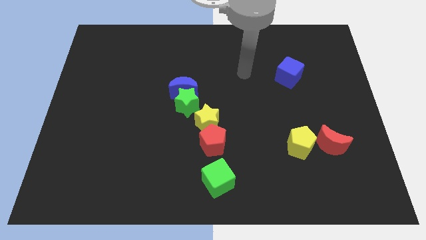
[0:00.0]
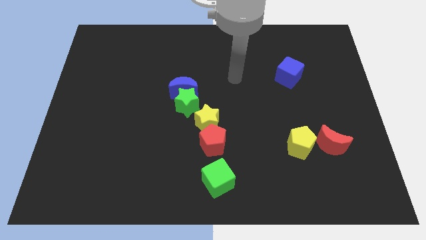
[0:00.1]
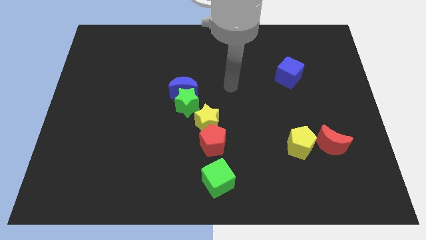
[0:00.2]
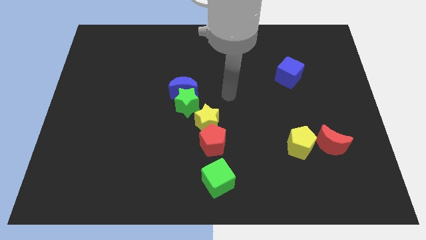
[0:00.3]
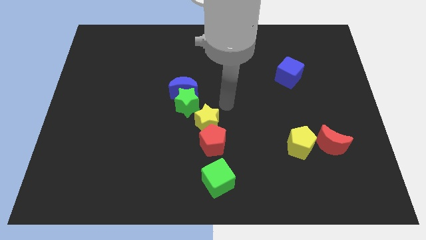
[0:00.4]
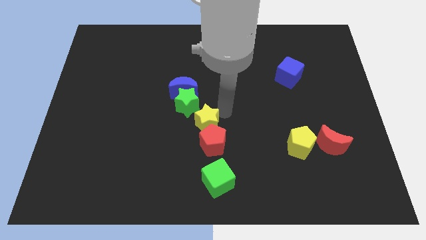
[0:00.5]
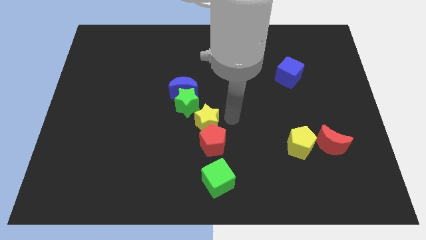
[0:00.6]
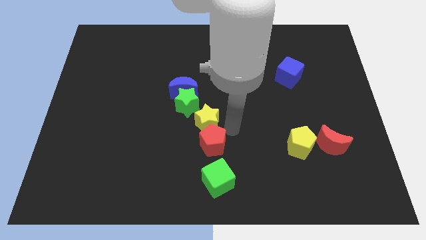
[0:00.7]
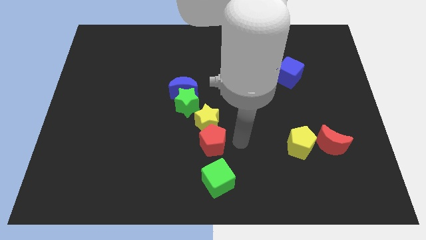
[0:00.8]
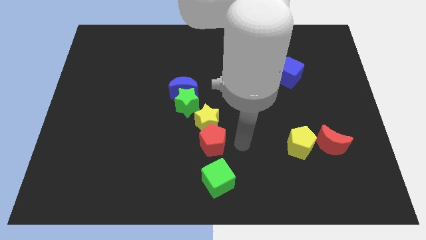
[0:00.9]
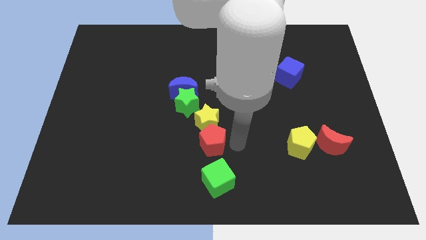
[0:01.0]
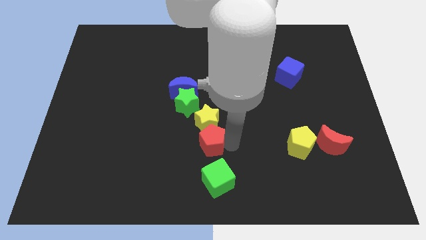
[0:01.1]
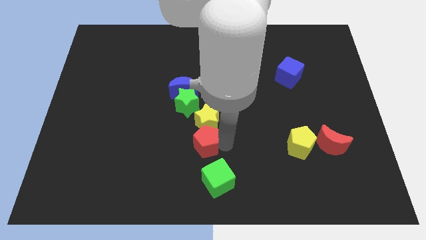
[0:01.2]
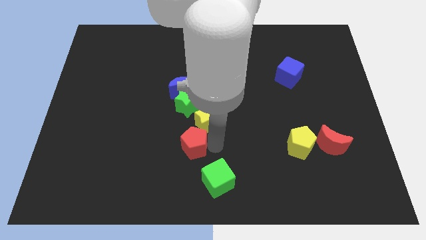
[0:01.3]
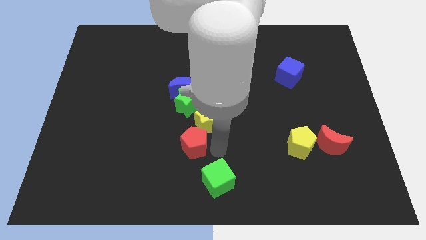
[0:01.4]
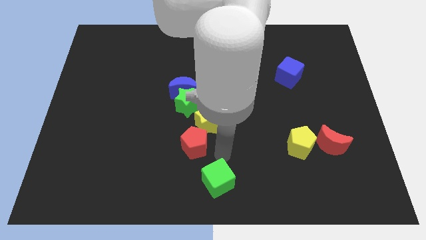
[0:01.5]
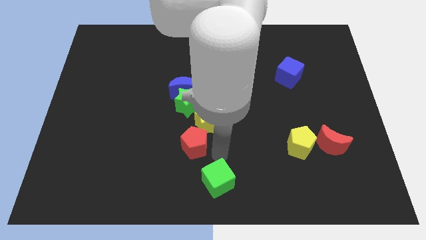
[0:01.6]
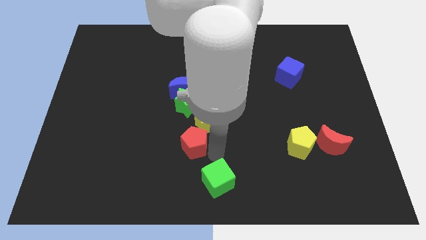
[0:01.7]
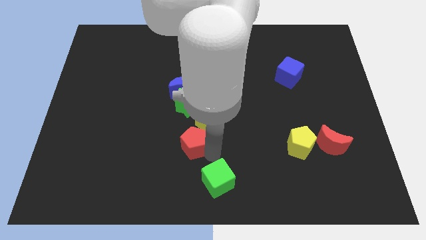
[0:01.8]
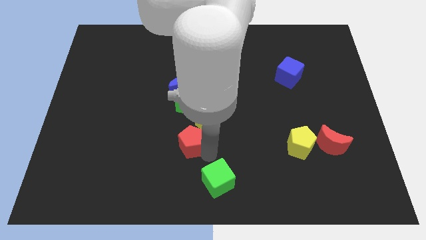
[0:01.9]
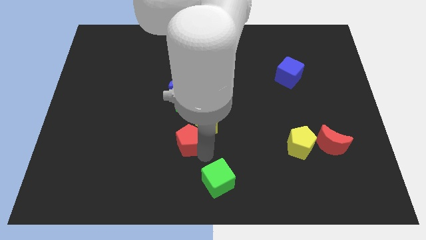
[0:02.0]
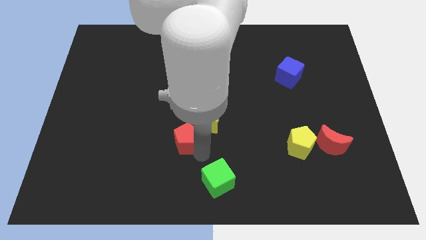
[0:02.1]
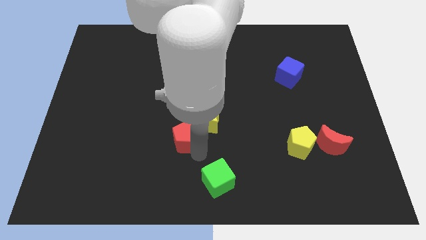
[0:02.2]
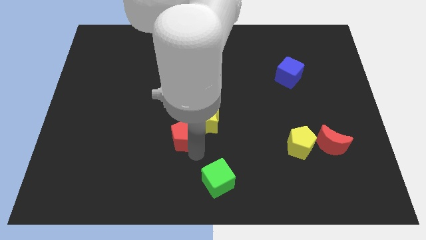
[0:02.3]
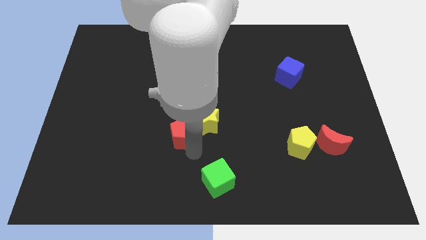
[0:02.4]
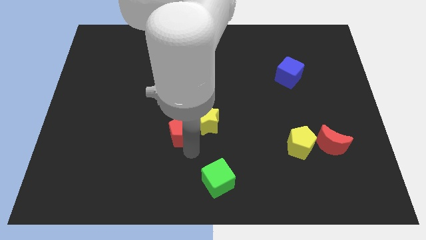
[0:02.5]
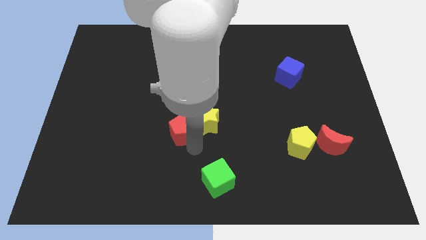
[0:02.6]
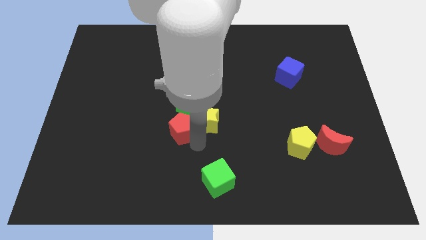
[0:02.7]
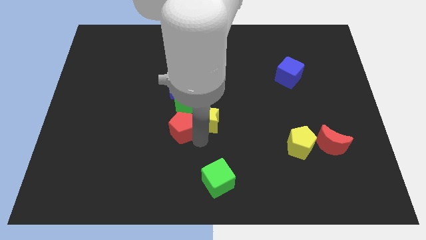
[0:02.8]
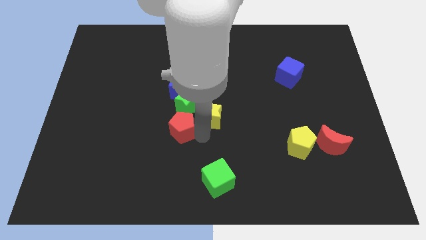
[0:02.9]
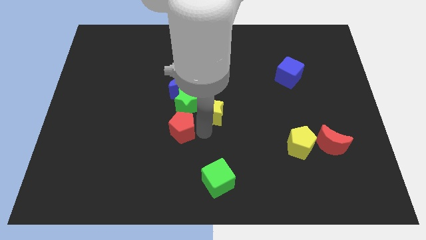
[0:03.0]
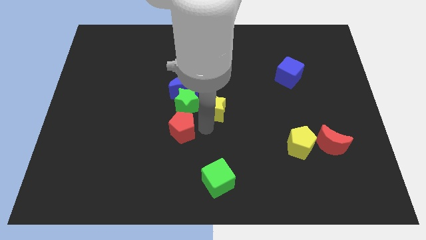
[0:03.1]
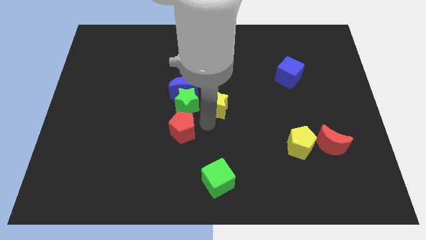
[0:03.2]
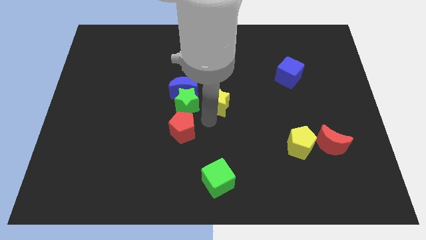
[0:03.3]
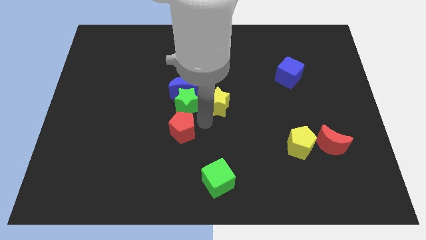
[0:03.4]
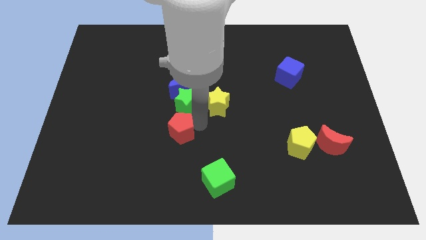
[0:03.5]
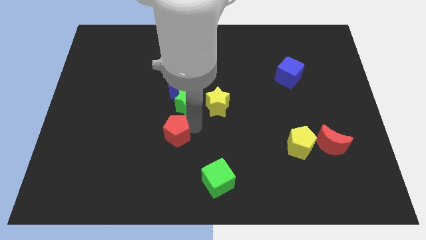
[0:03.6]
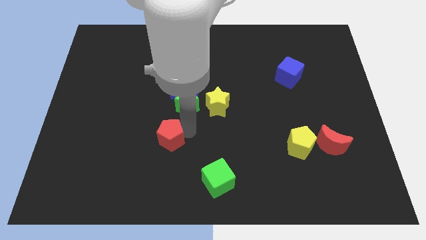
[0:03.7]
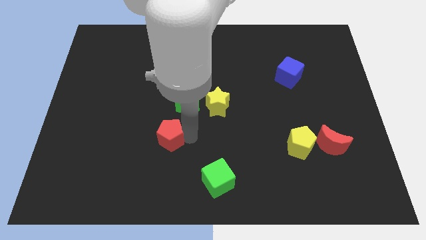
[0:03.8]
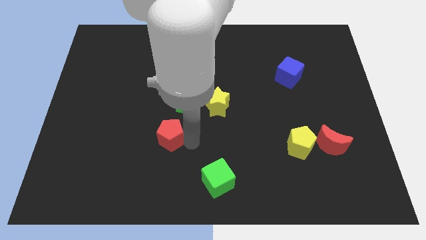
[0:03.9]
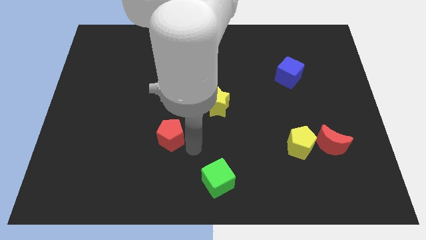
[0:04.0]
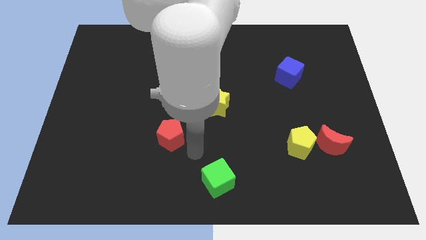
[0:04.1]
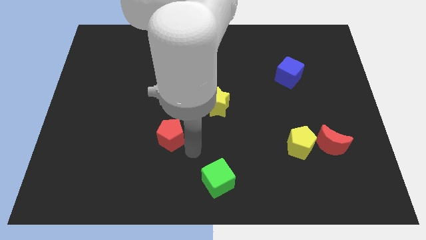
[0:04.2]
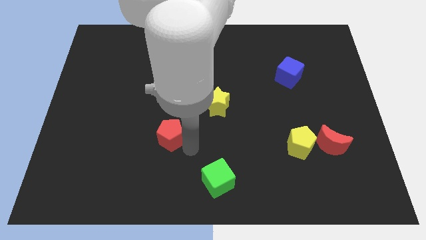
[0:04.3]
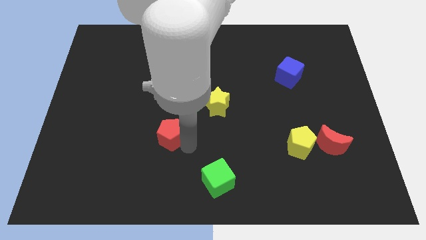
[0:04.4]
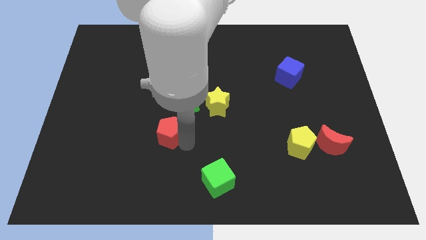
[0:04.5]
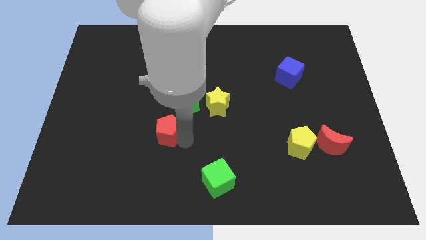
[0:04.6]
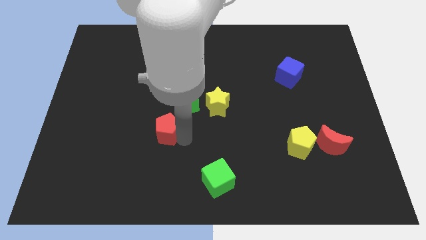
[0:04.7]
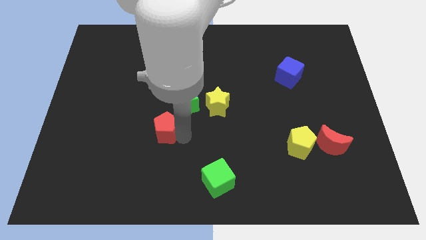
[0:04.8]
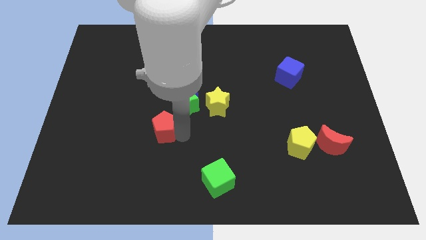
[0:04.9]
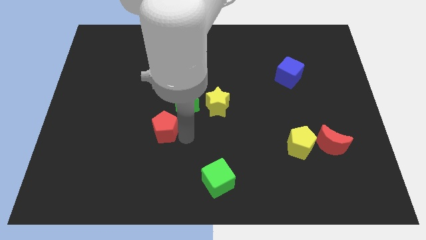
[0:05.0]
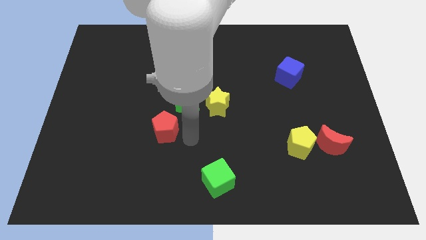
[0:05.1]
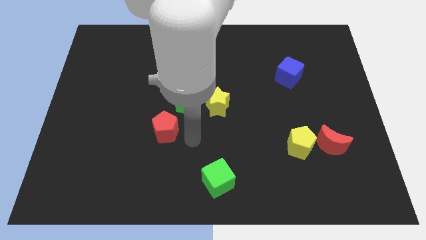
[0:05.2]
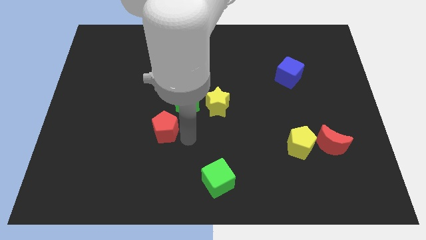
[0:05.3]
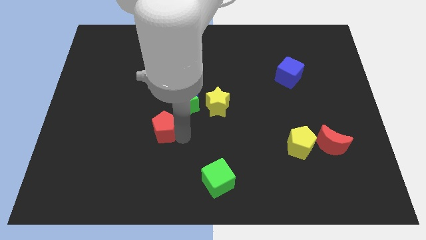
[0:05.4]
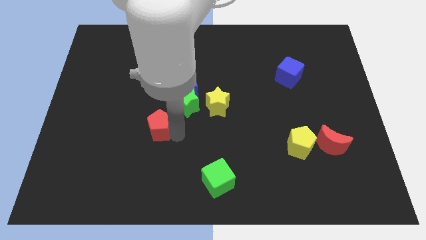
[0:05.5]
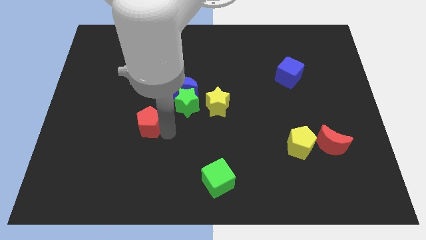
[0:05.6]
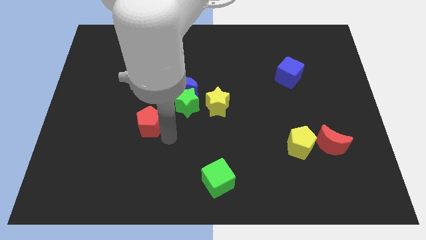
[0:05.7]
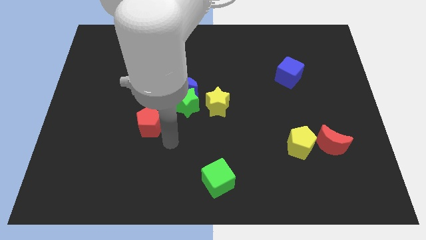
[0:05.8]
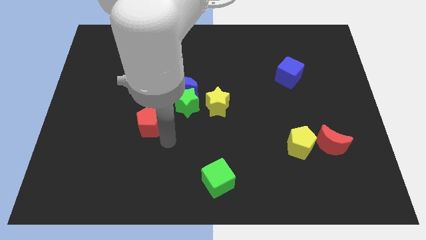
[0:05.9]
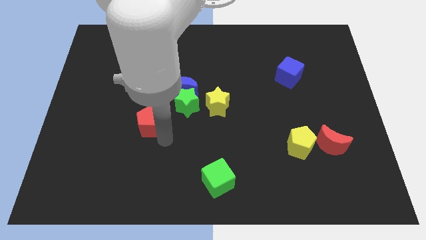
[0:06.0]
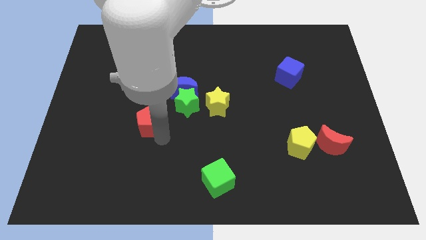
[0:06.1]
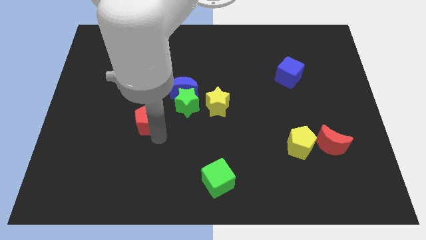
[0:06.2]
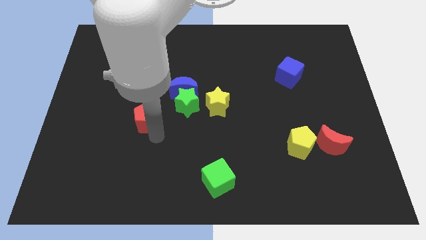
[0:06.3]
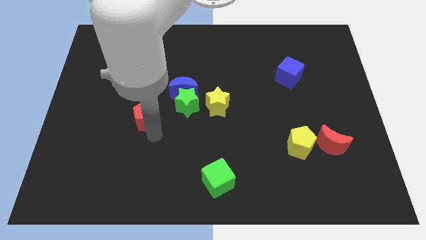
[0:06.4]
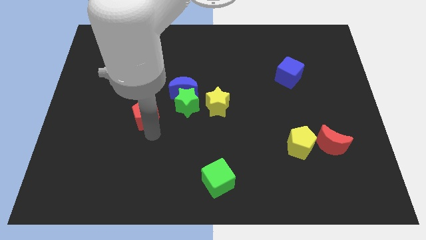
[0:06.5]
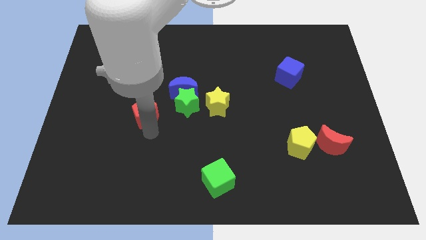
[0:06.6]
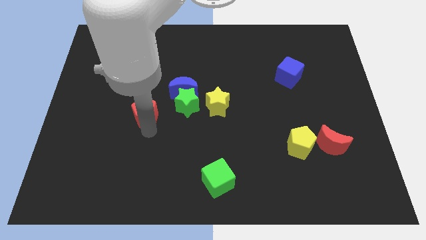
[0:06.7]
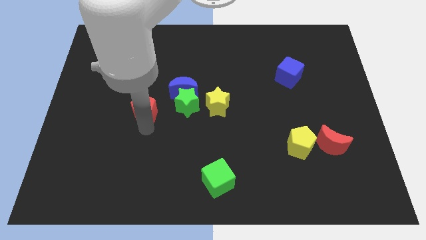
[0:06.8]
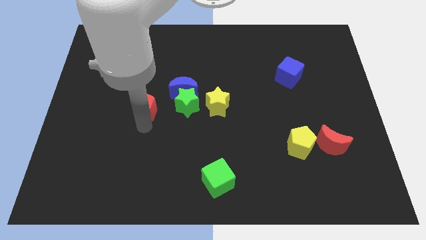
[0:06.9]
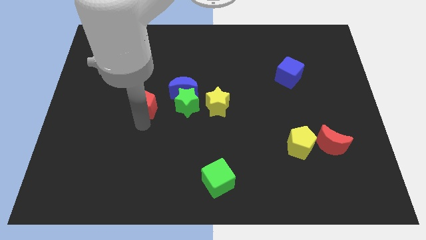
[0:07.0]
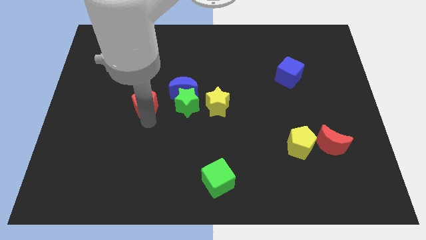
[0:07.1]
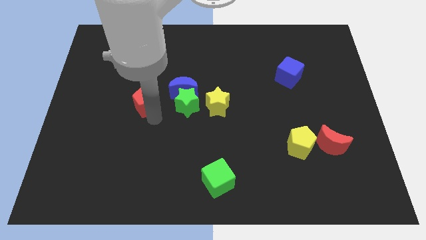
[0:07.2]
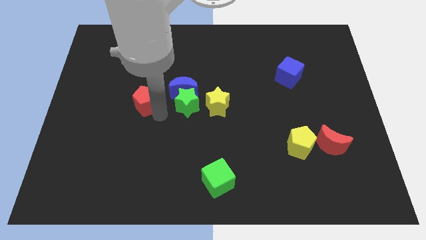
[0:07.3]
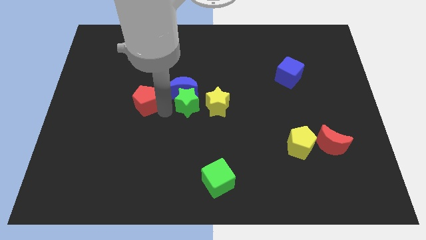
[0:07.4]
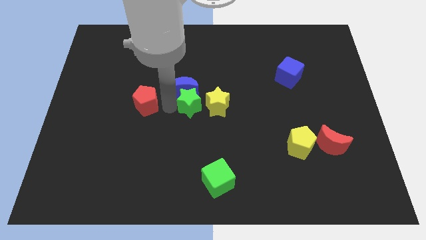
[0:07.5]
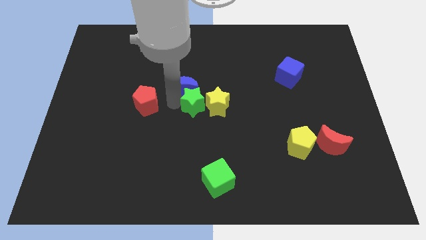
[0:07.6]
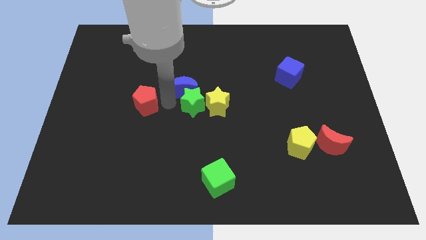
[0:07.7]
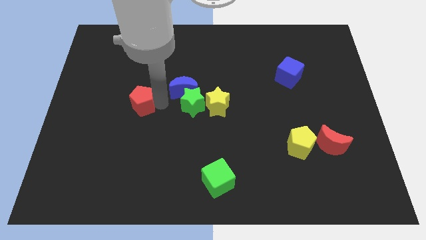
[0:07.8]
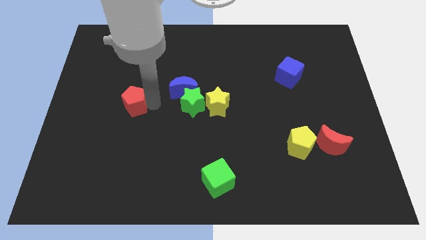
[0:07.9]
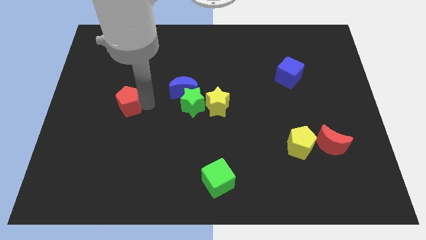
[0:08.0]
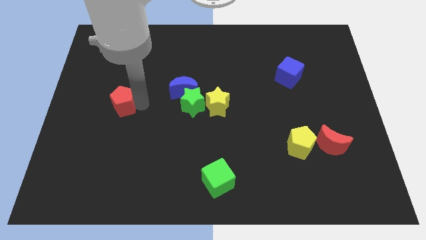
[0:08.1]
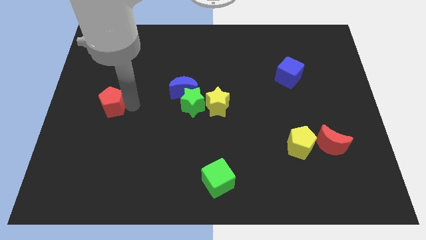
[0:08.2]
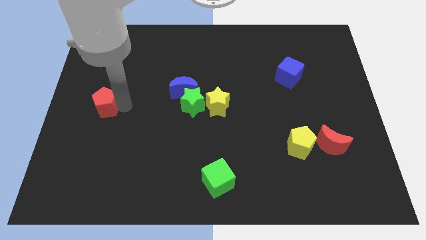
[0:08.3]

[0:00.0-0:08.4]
push the red pentagon to the center left
